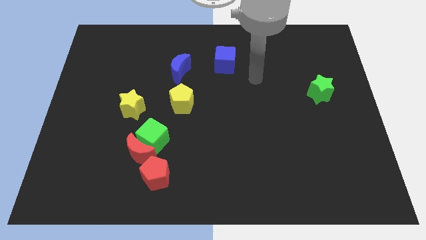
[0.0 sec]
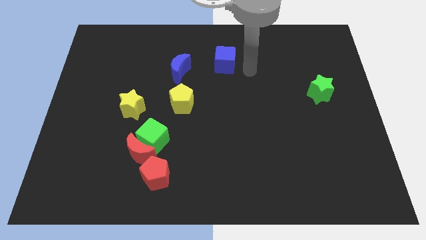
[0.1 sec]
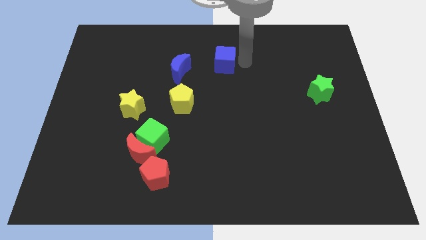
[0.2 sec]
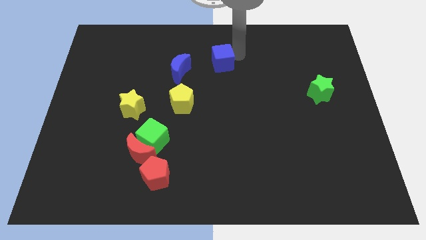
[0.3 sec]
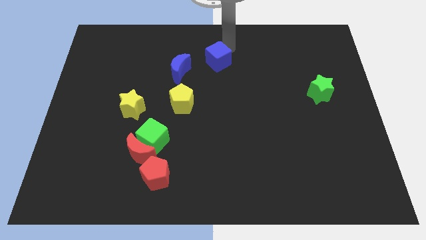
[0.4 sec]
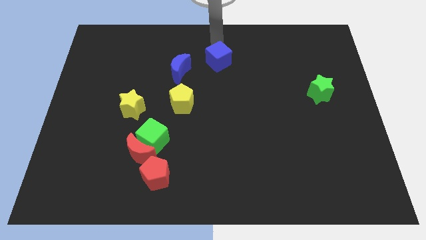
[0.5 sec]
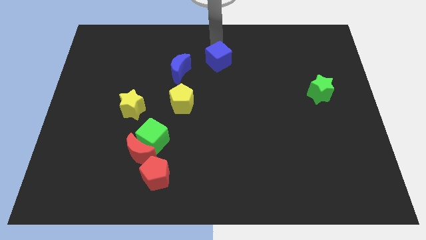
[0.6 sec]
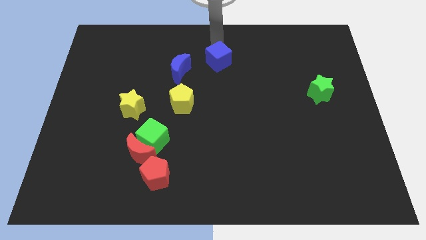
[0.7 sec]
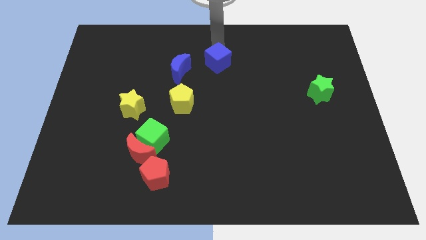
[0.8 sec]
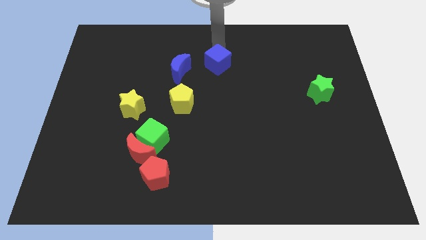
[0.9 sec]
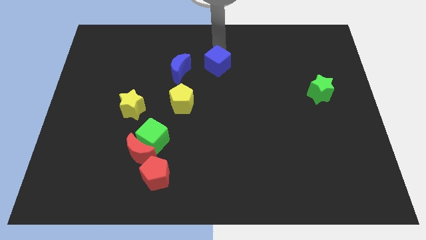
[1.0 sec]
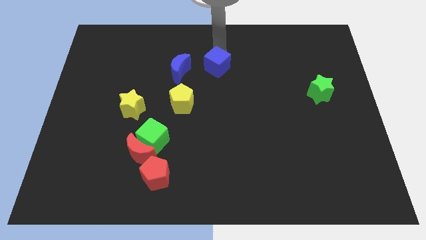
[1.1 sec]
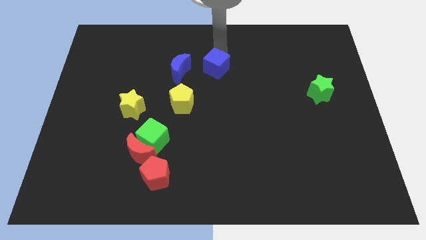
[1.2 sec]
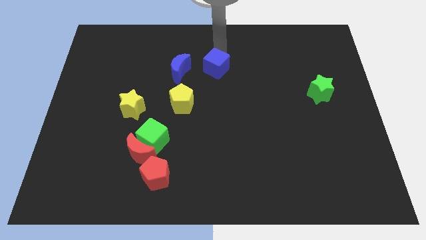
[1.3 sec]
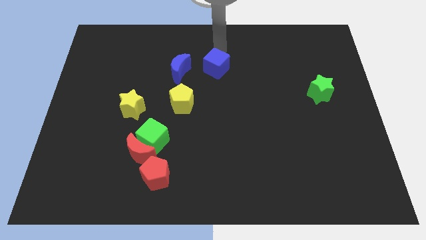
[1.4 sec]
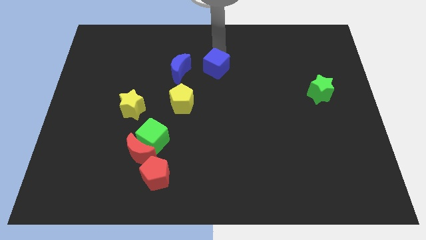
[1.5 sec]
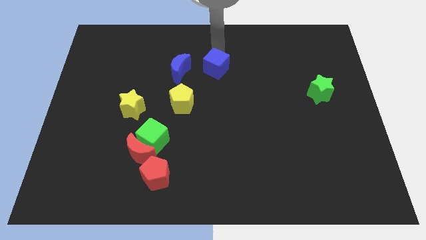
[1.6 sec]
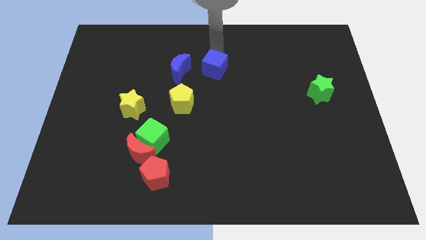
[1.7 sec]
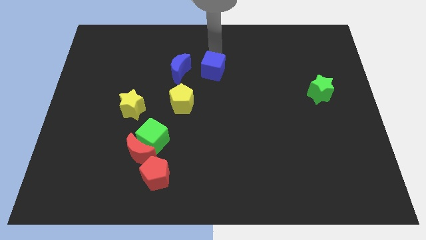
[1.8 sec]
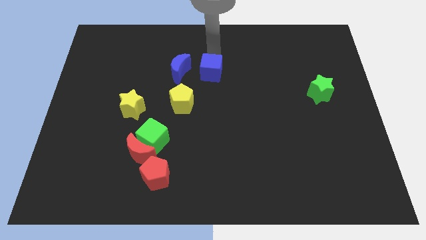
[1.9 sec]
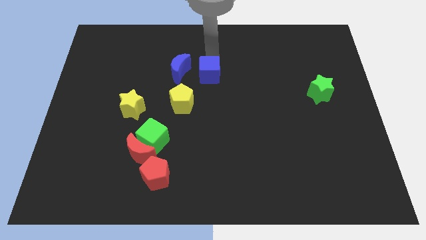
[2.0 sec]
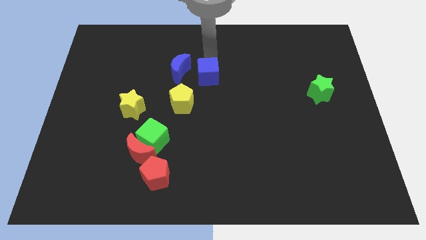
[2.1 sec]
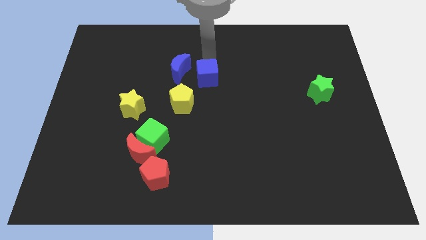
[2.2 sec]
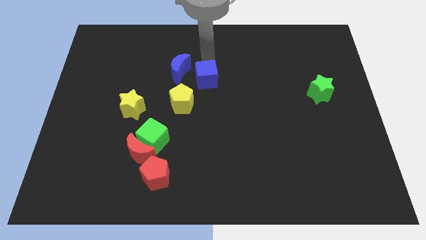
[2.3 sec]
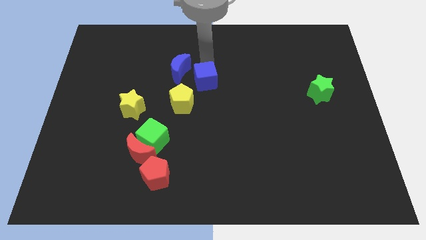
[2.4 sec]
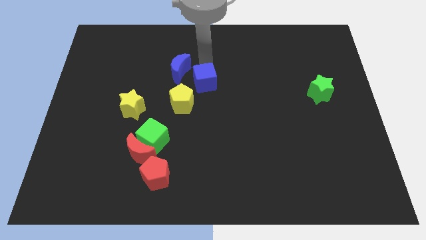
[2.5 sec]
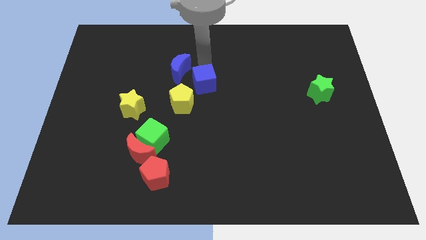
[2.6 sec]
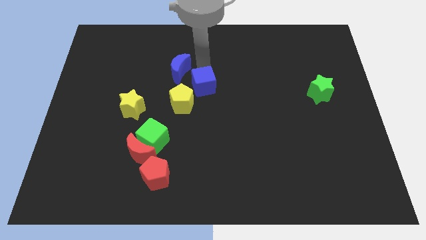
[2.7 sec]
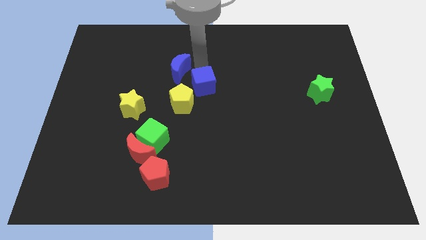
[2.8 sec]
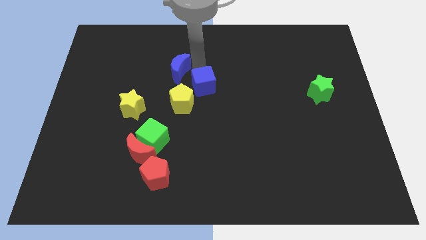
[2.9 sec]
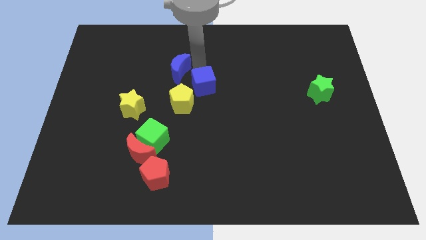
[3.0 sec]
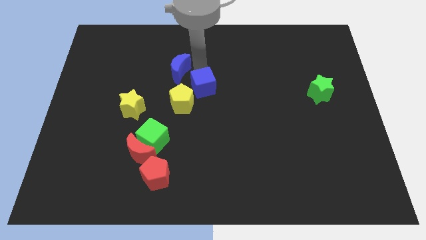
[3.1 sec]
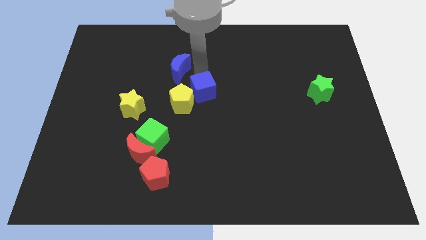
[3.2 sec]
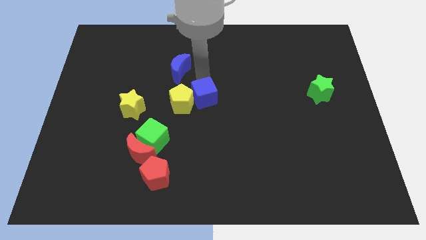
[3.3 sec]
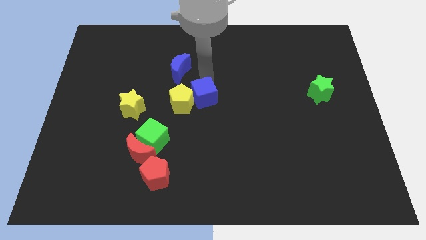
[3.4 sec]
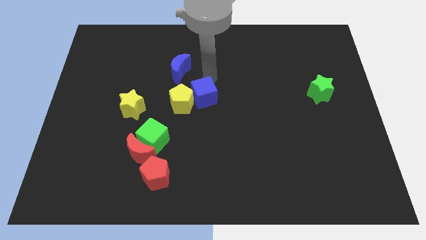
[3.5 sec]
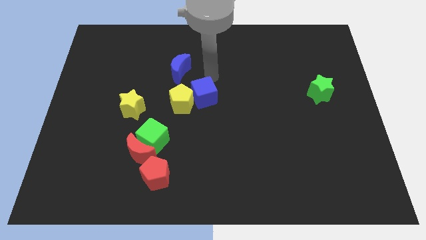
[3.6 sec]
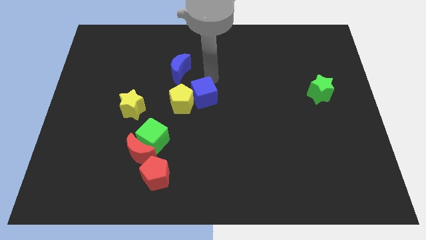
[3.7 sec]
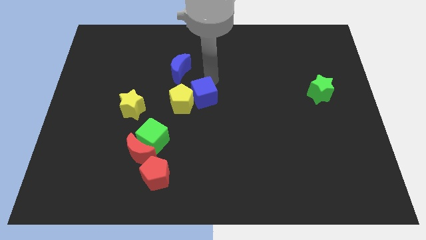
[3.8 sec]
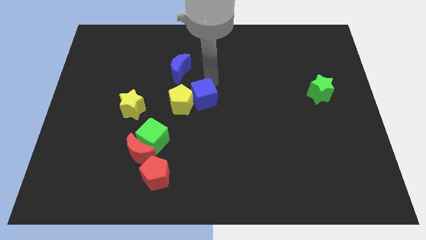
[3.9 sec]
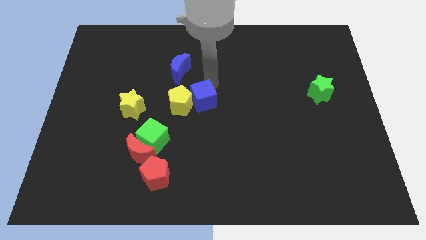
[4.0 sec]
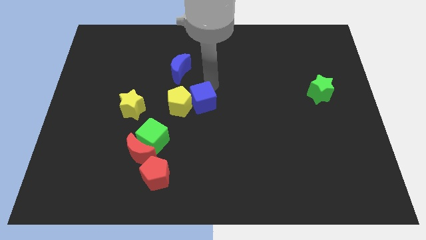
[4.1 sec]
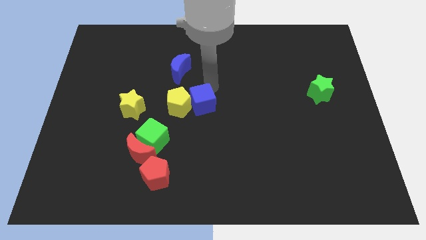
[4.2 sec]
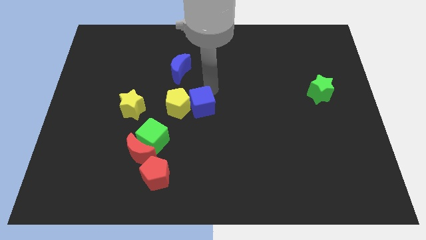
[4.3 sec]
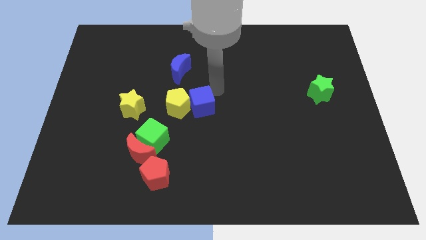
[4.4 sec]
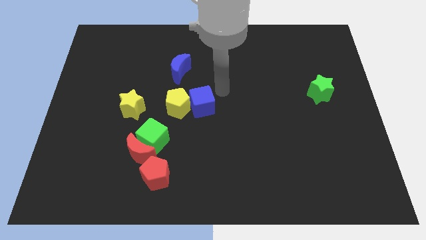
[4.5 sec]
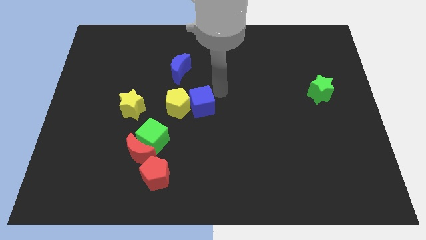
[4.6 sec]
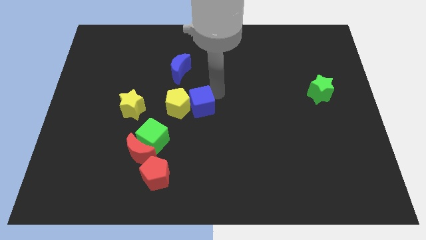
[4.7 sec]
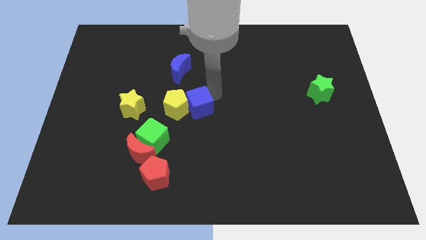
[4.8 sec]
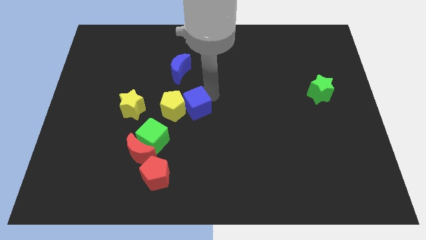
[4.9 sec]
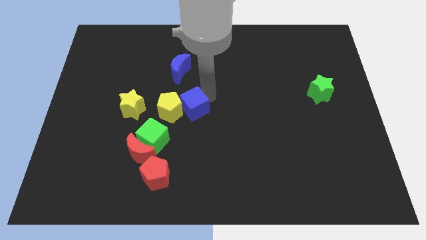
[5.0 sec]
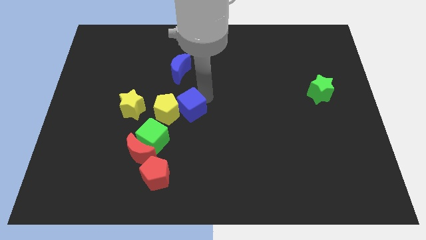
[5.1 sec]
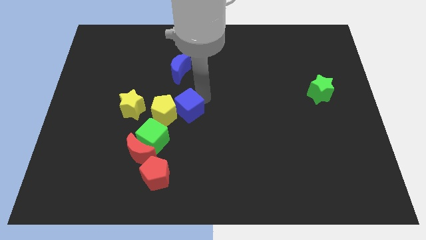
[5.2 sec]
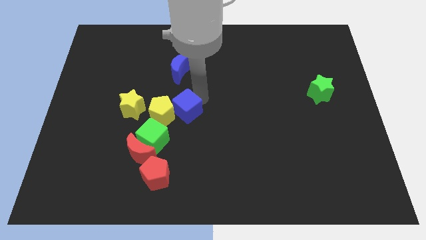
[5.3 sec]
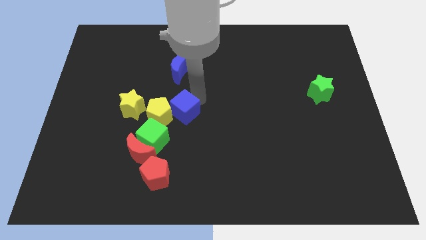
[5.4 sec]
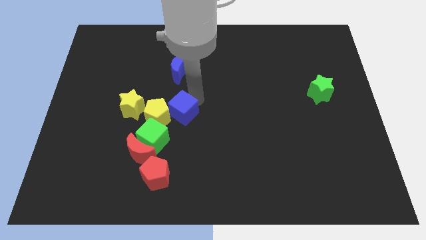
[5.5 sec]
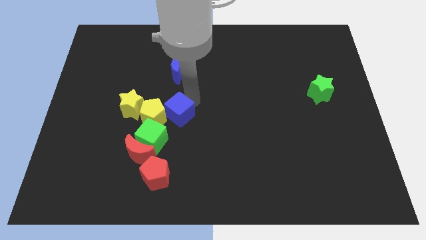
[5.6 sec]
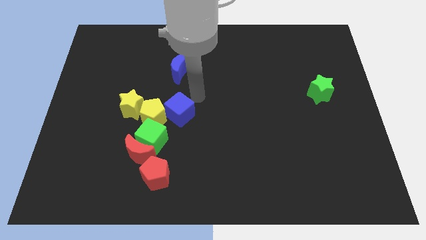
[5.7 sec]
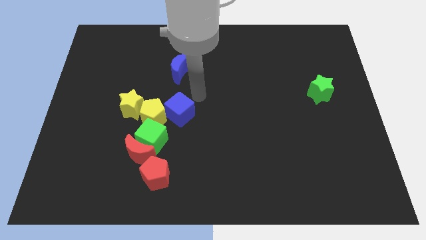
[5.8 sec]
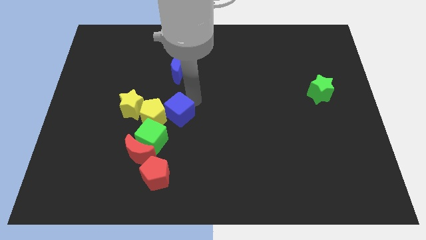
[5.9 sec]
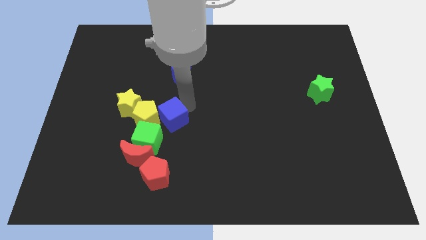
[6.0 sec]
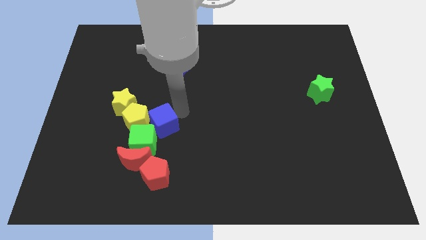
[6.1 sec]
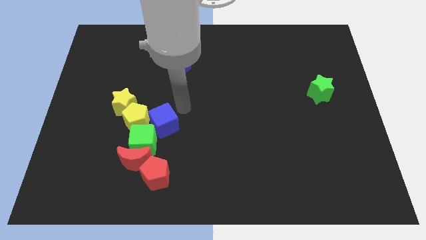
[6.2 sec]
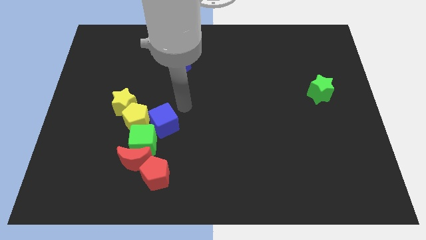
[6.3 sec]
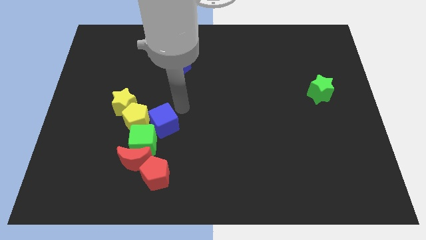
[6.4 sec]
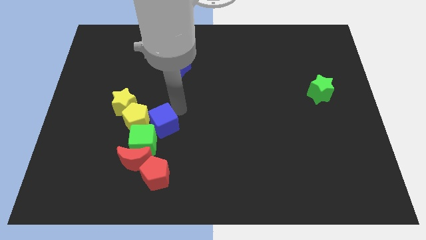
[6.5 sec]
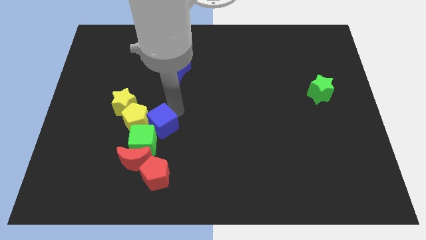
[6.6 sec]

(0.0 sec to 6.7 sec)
put the blue cube next to the green cube

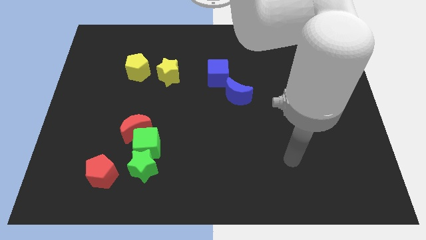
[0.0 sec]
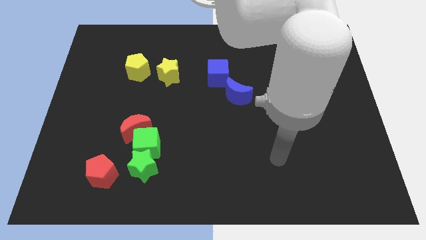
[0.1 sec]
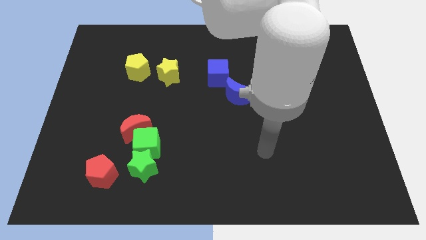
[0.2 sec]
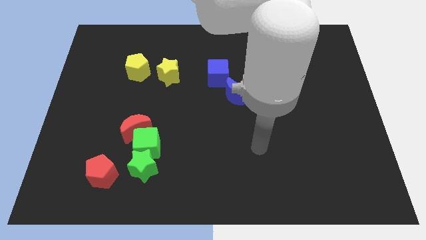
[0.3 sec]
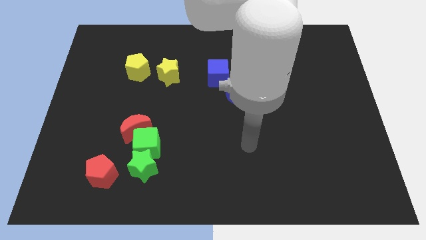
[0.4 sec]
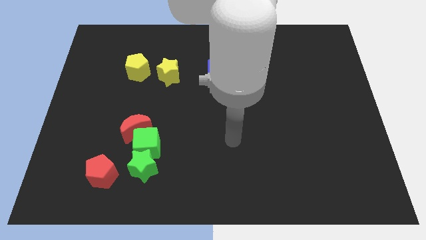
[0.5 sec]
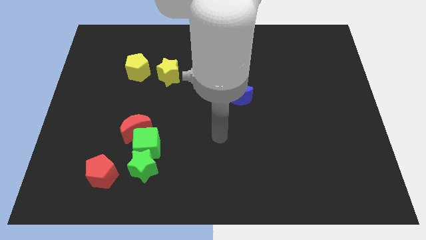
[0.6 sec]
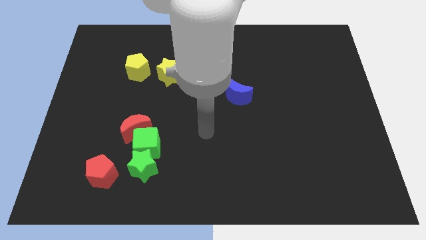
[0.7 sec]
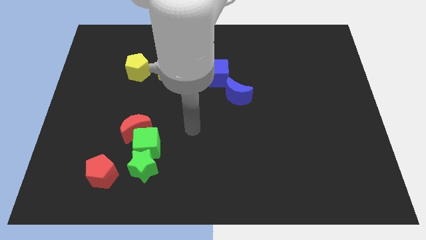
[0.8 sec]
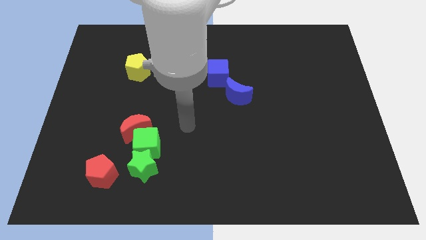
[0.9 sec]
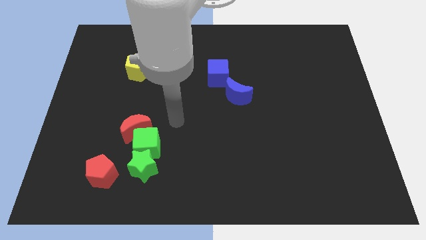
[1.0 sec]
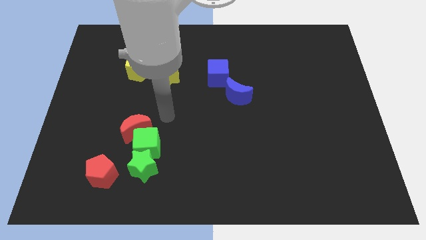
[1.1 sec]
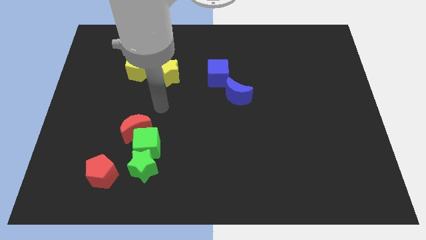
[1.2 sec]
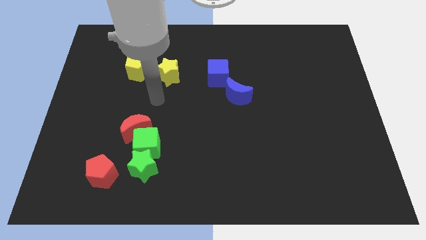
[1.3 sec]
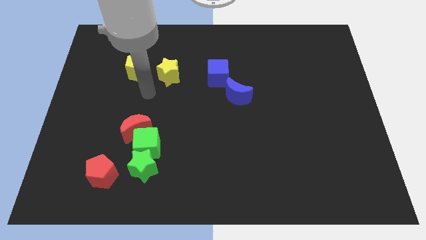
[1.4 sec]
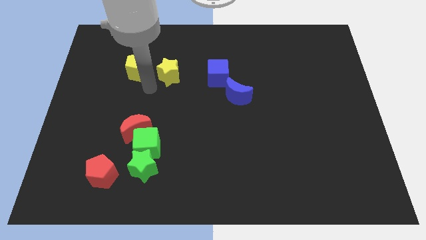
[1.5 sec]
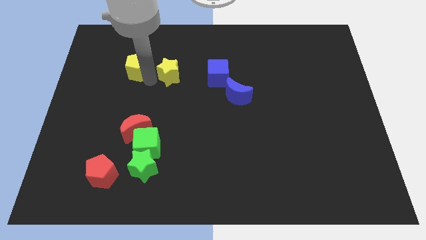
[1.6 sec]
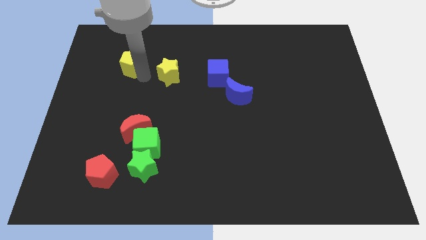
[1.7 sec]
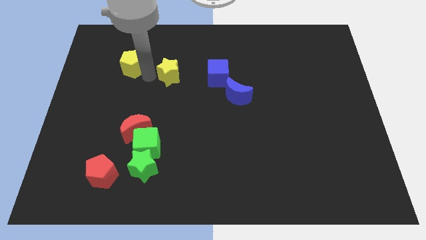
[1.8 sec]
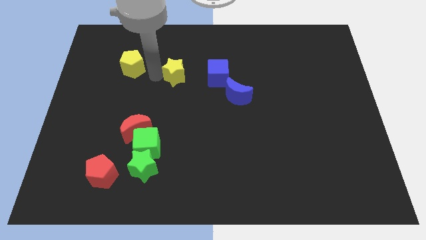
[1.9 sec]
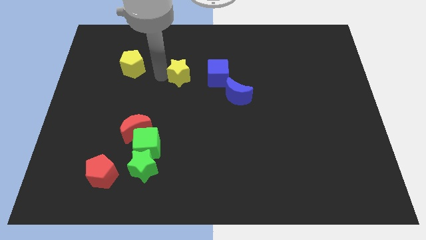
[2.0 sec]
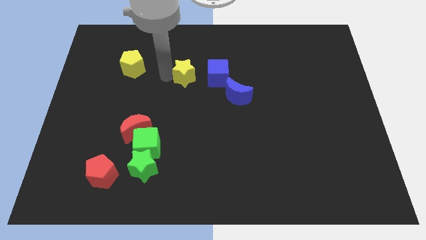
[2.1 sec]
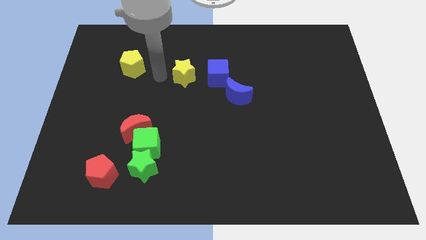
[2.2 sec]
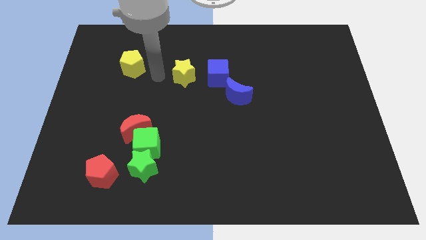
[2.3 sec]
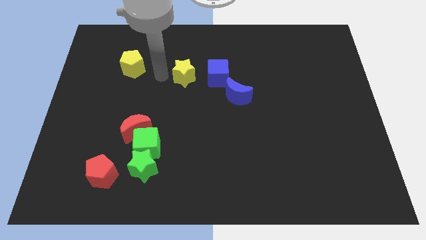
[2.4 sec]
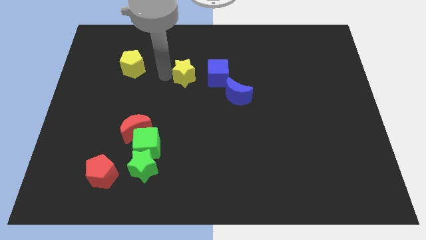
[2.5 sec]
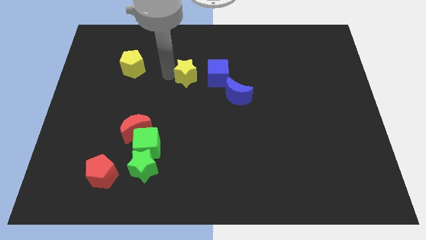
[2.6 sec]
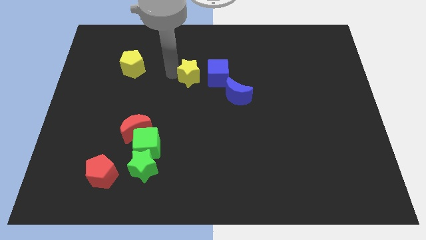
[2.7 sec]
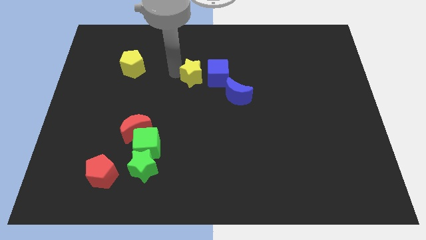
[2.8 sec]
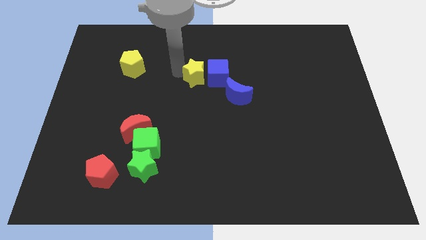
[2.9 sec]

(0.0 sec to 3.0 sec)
move the yellow star close to the blue cube
